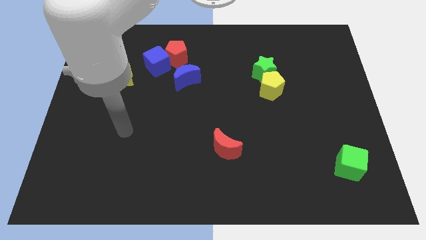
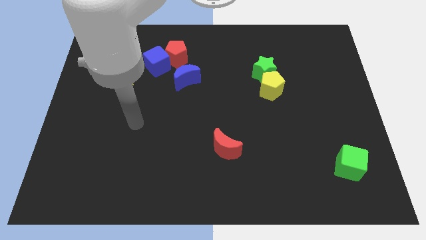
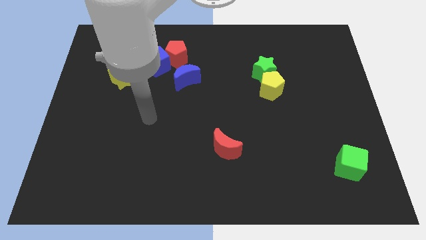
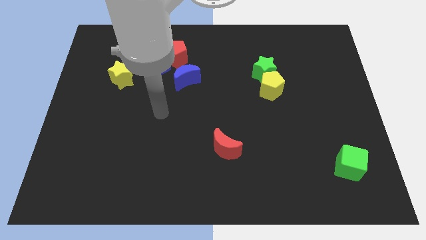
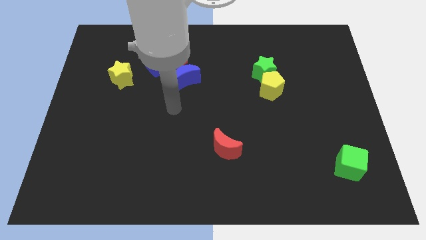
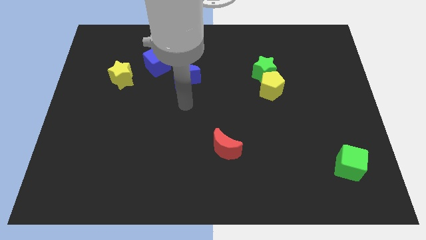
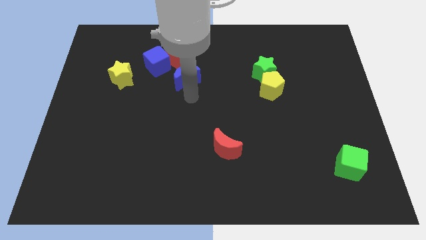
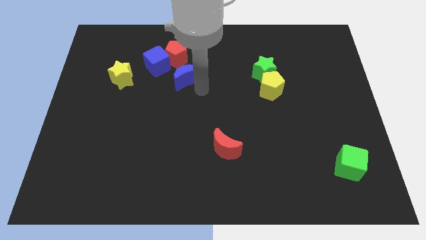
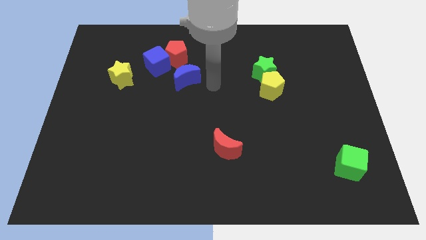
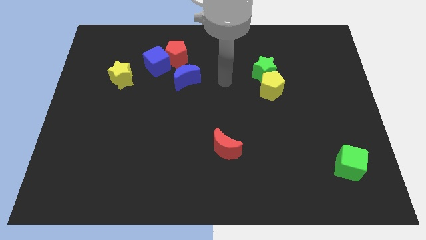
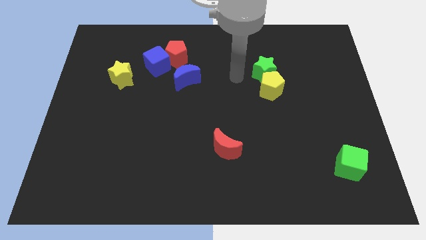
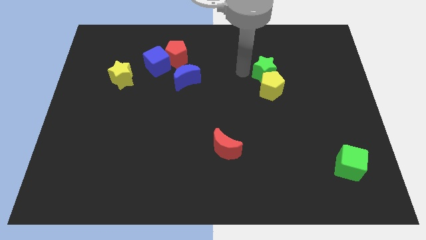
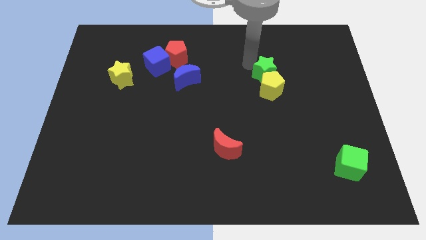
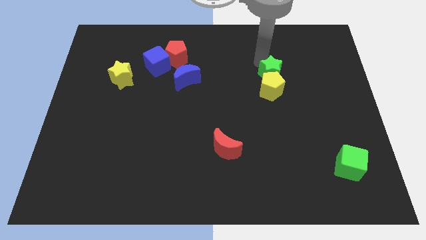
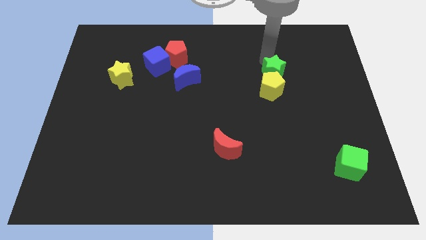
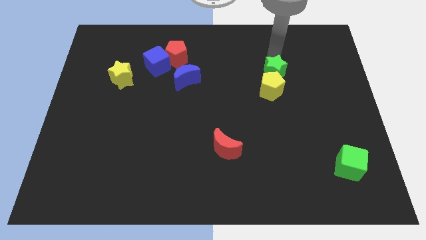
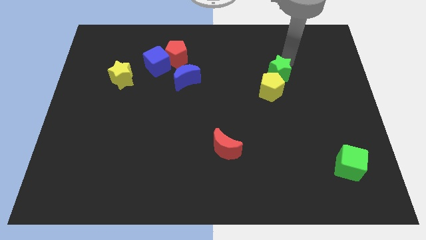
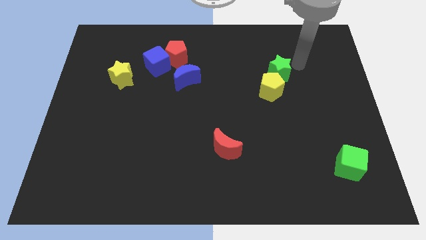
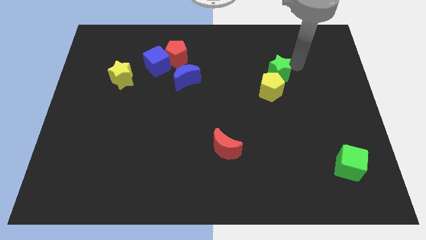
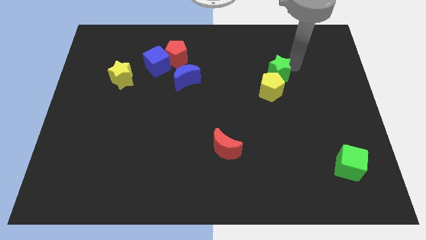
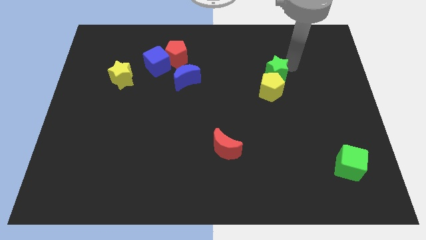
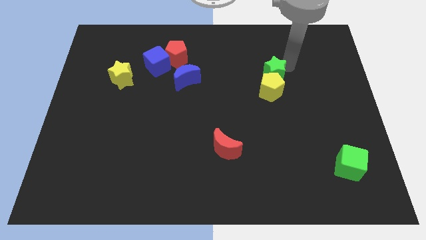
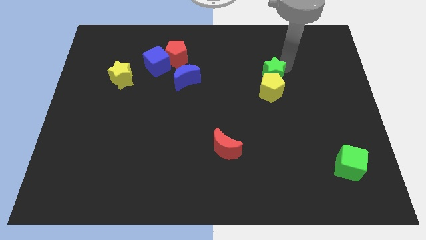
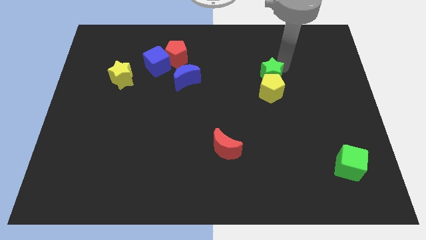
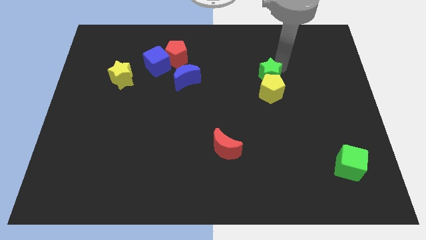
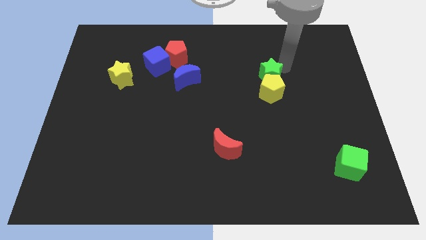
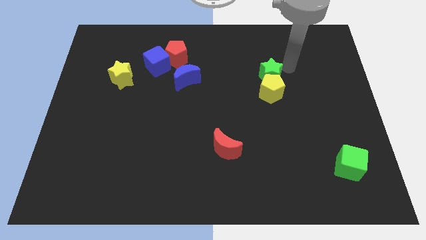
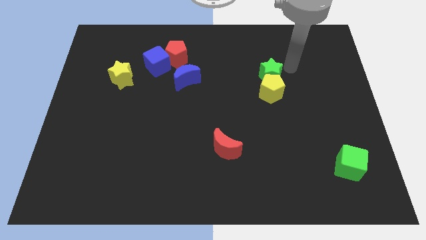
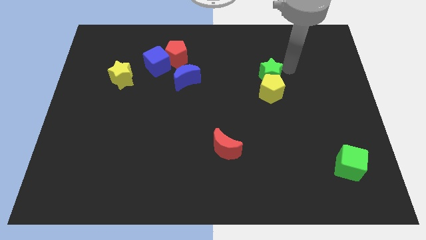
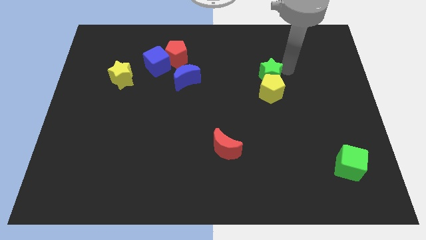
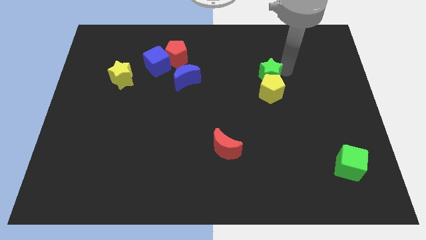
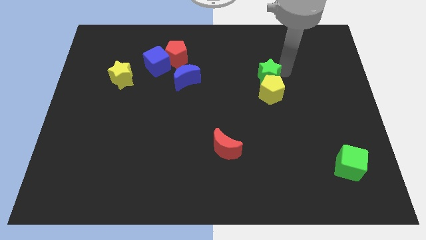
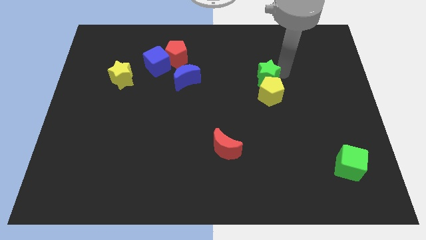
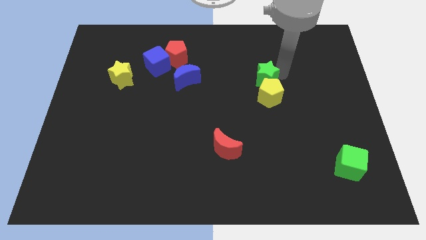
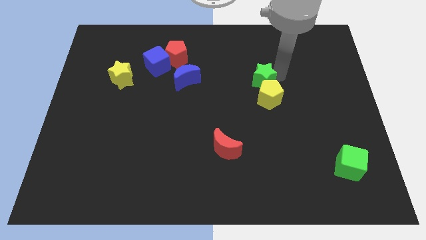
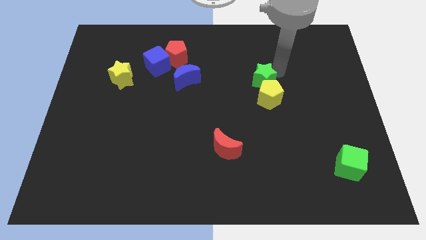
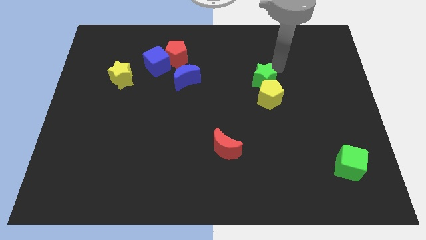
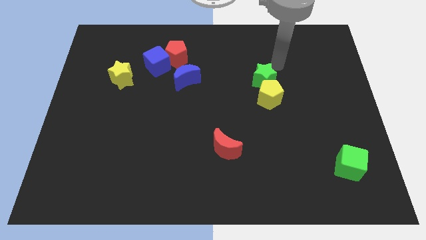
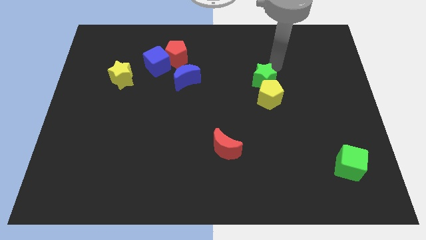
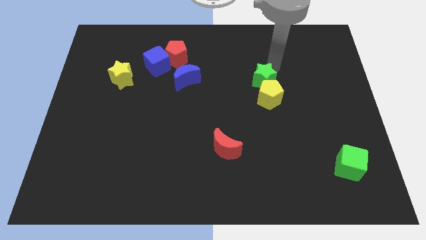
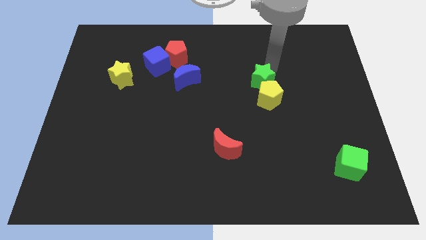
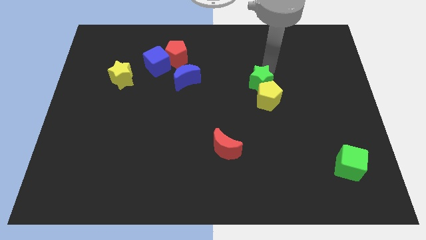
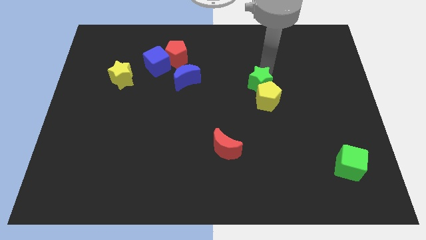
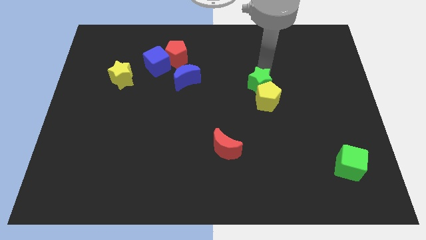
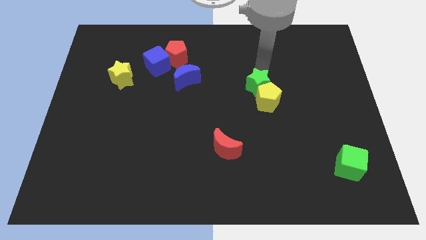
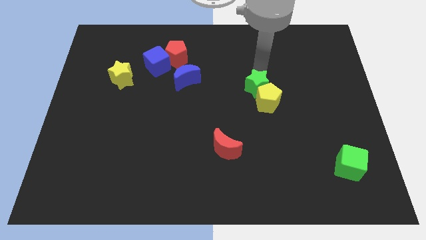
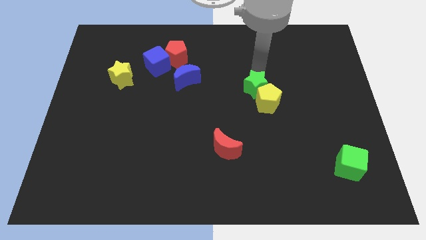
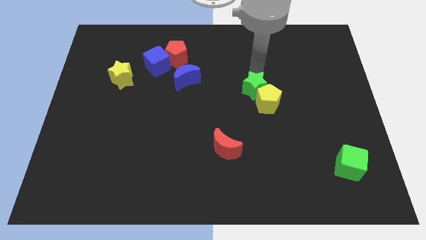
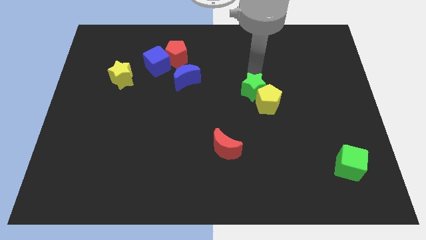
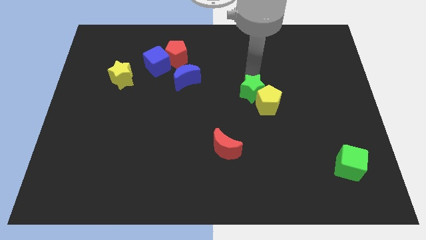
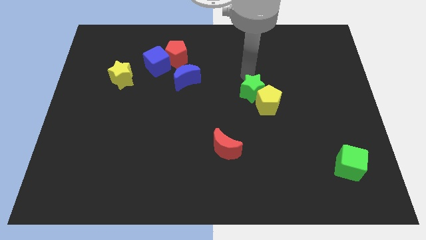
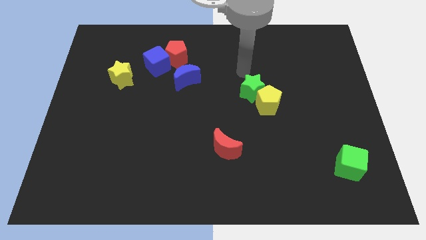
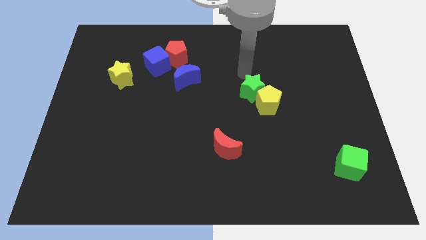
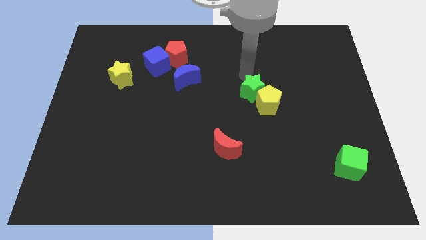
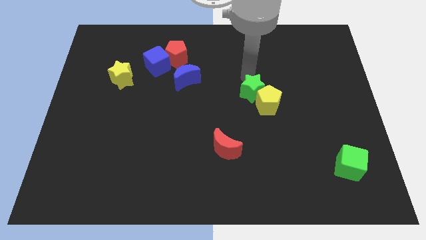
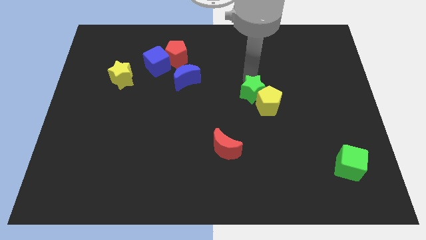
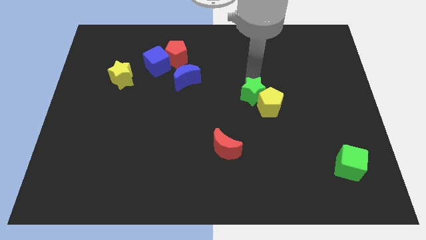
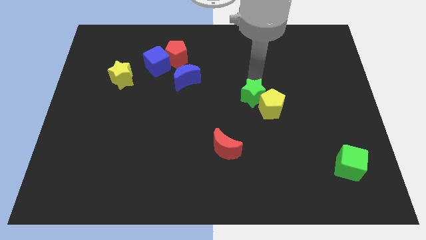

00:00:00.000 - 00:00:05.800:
slightly move the green star downwards

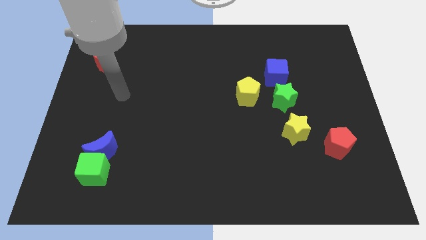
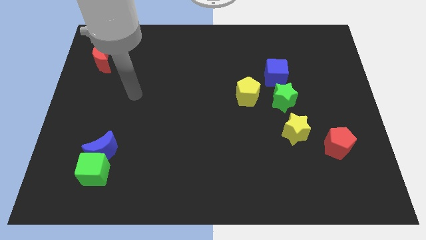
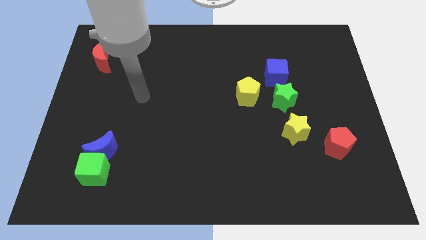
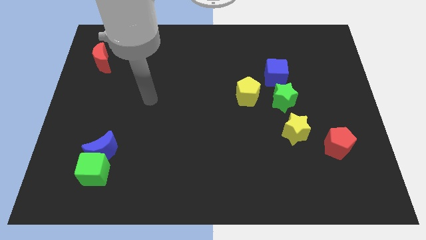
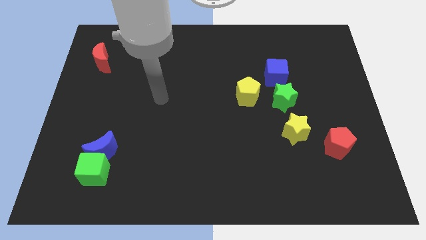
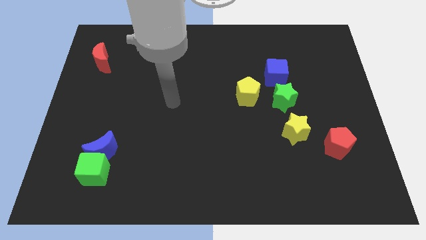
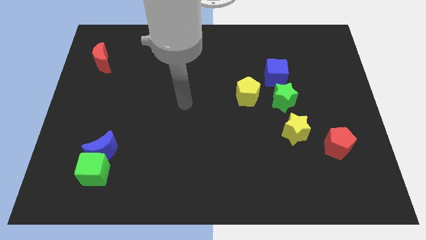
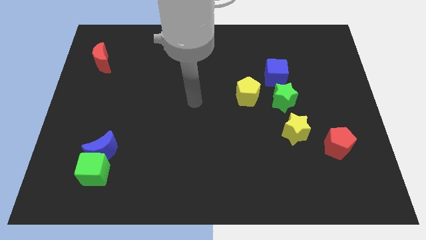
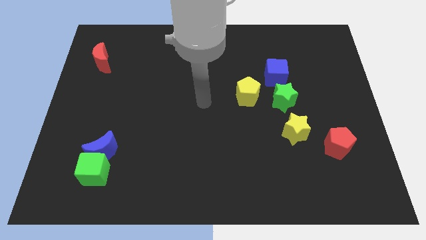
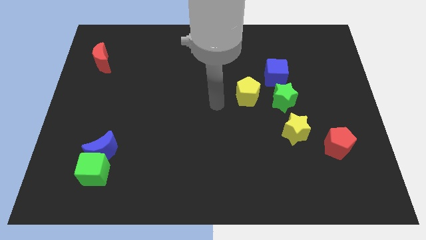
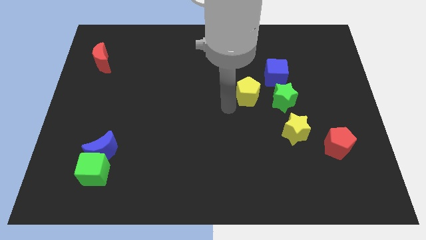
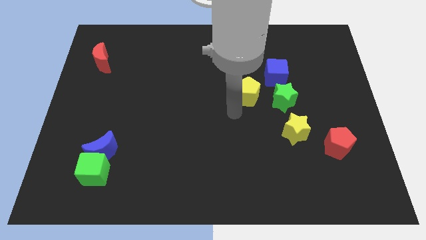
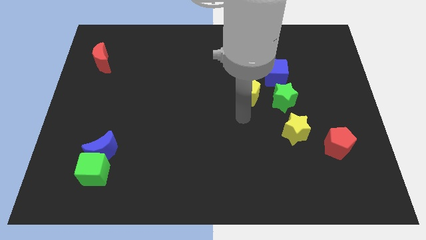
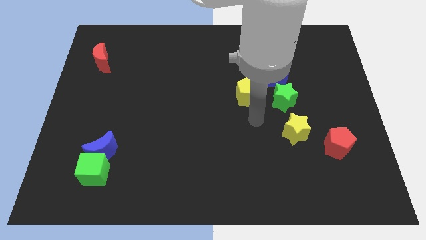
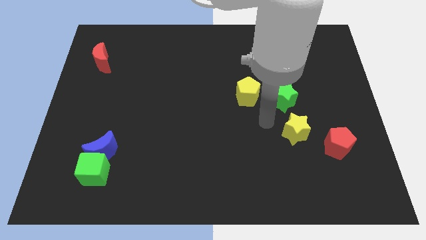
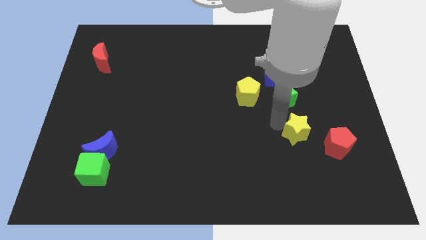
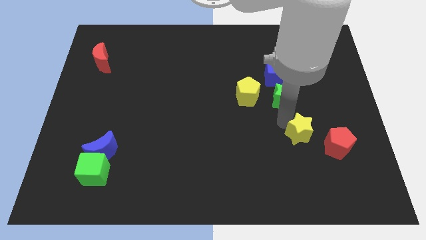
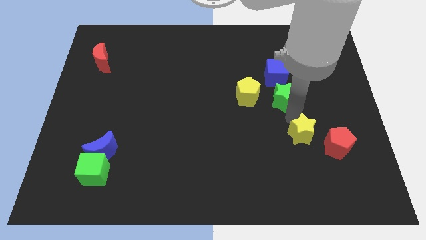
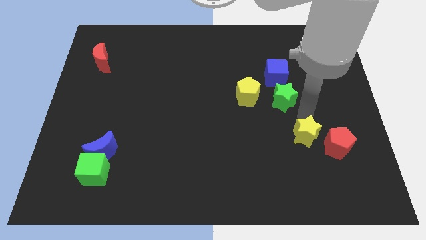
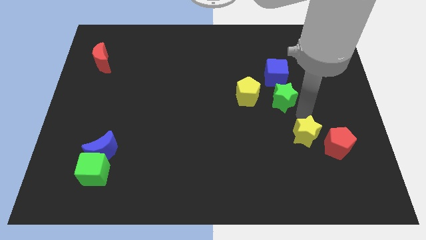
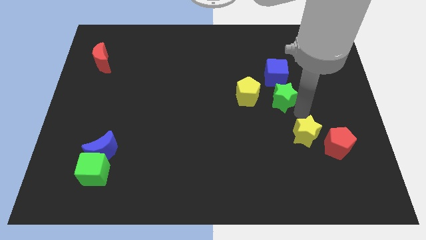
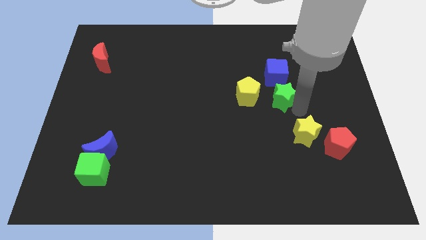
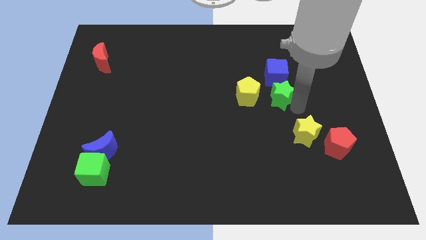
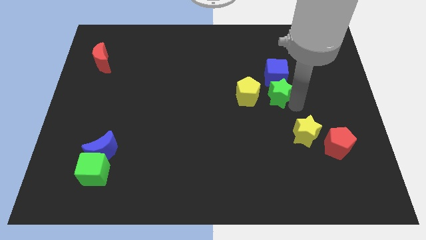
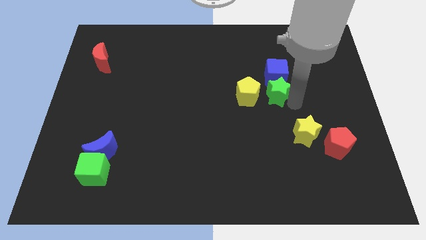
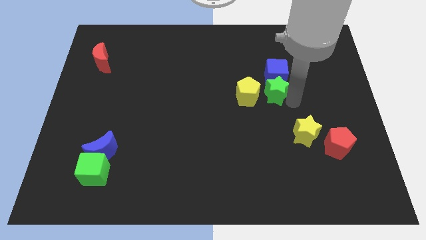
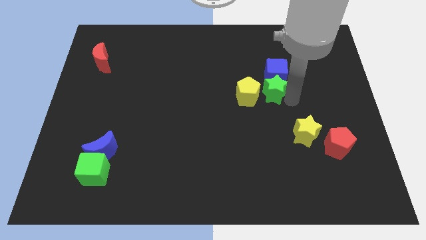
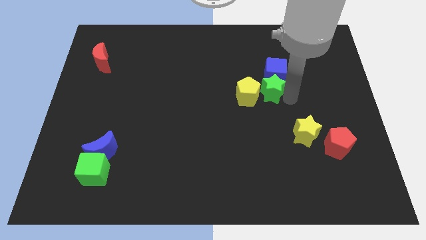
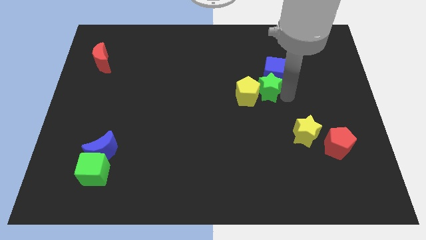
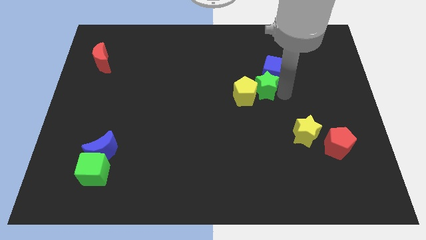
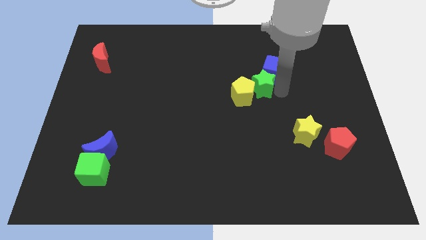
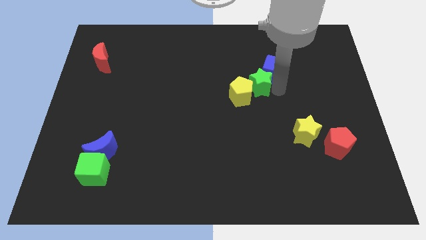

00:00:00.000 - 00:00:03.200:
push the green star upwards and left diagonally somewhat
